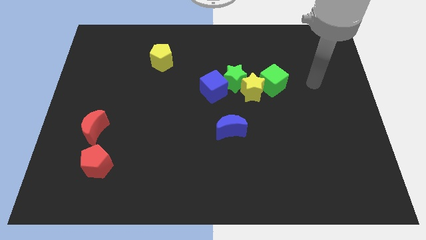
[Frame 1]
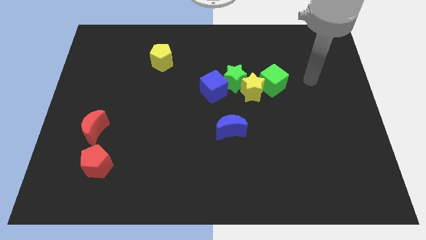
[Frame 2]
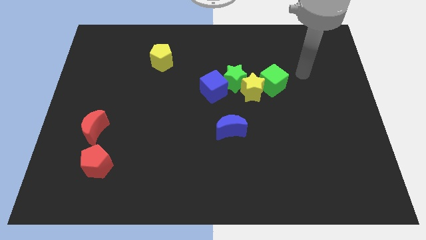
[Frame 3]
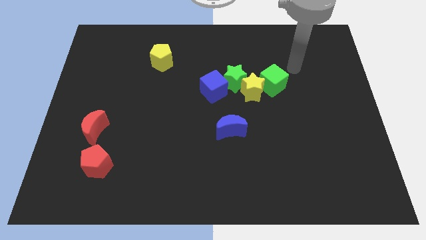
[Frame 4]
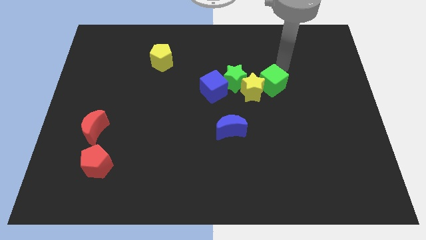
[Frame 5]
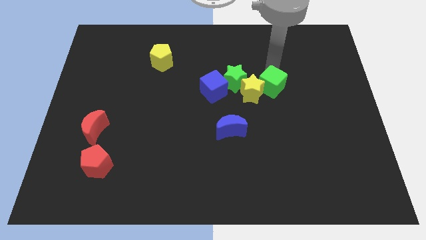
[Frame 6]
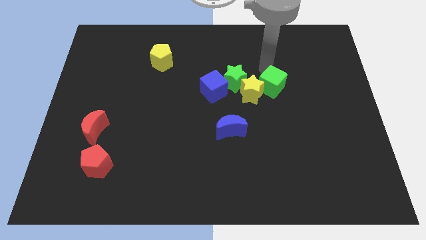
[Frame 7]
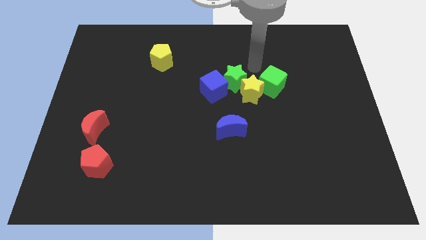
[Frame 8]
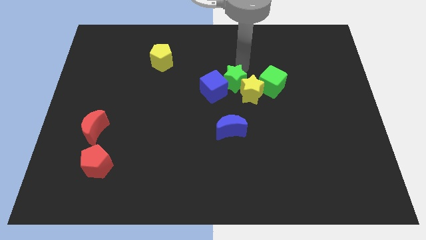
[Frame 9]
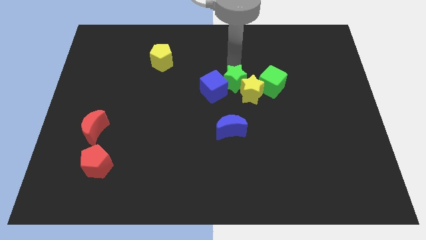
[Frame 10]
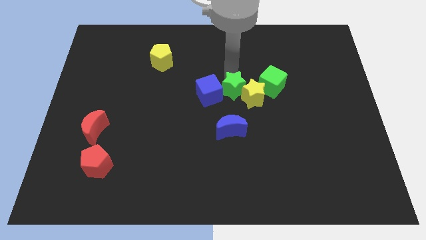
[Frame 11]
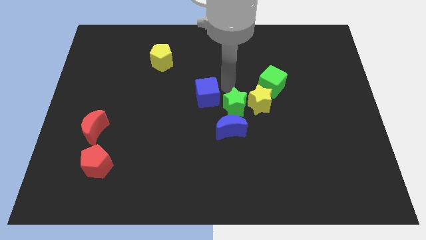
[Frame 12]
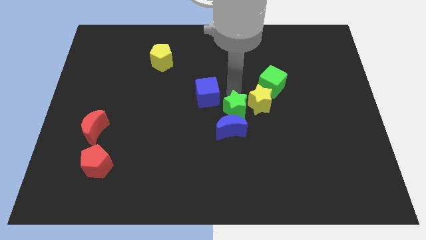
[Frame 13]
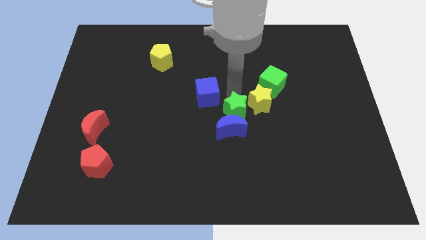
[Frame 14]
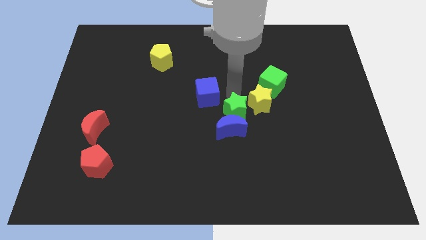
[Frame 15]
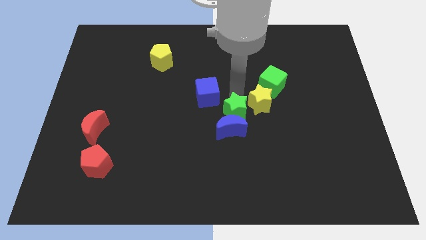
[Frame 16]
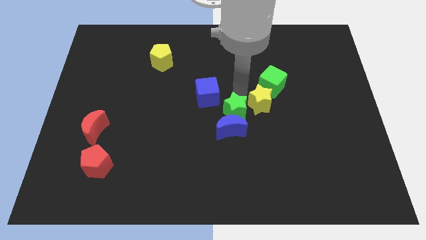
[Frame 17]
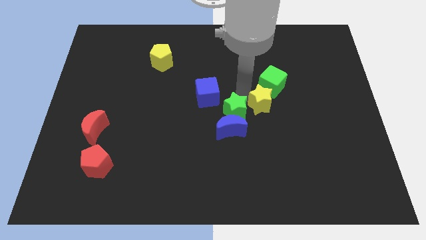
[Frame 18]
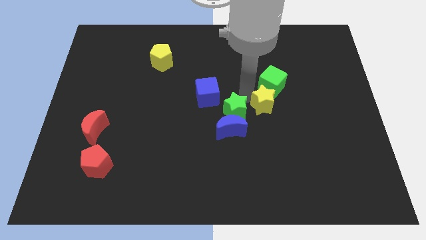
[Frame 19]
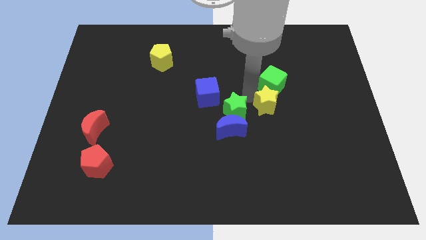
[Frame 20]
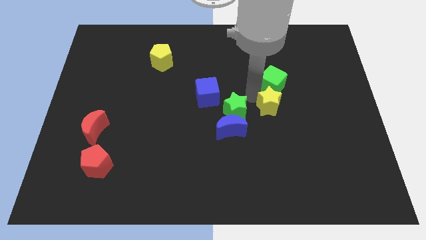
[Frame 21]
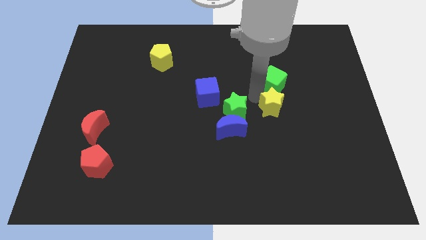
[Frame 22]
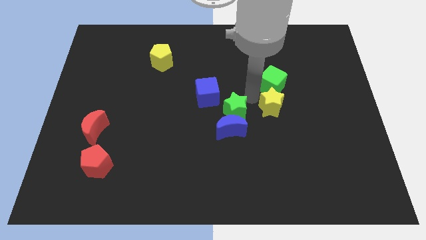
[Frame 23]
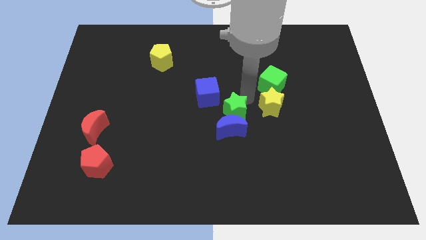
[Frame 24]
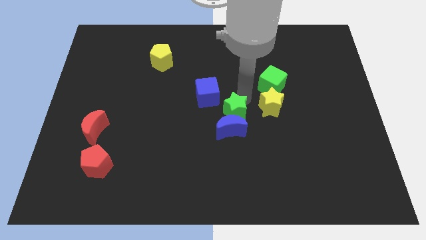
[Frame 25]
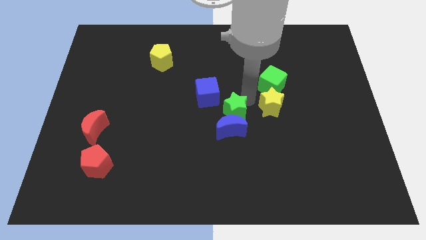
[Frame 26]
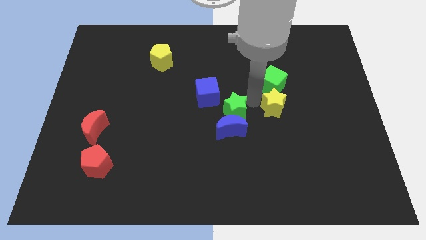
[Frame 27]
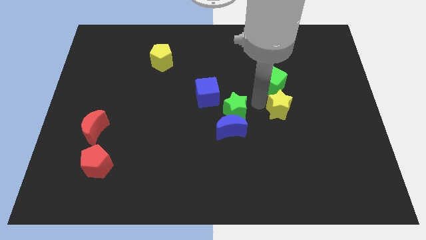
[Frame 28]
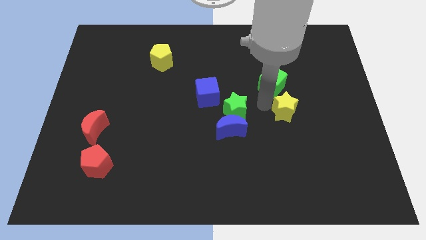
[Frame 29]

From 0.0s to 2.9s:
move the yellow star away from the clump

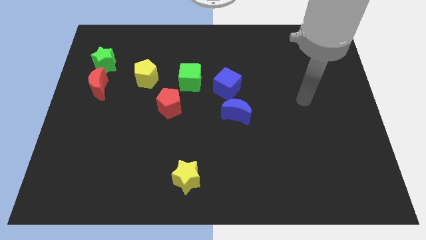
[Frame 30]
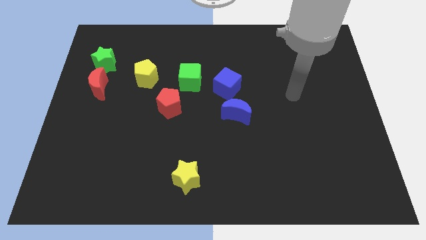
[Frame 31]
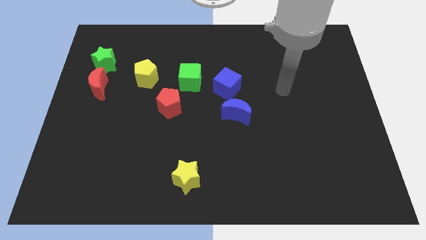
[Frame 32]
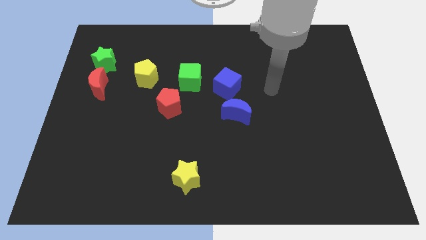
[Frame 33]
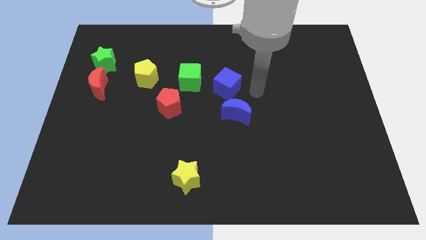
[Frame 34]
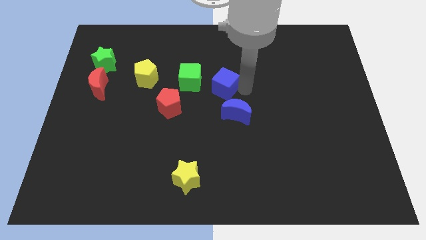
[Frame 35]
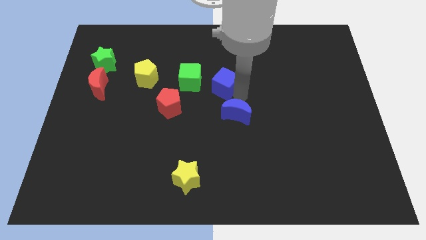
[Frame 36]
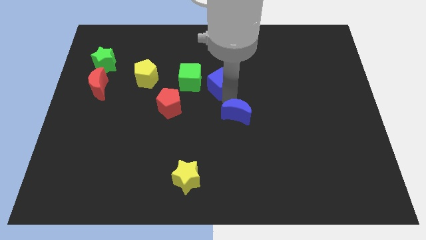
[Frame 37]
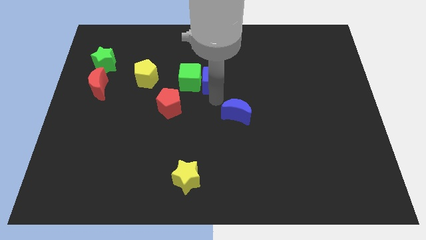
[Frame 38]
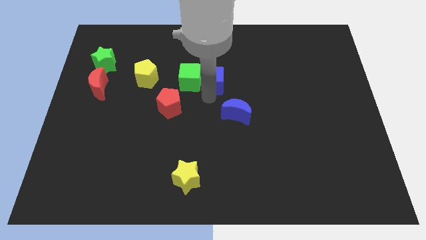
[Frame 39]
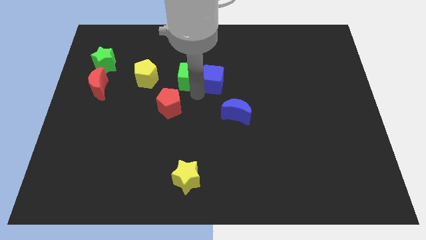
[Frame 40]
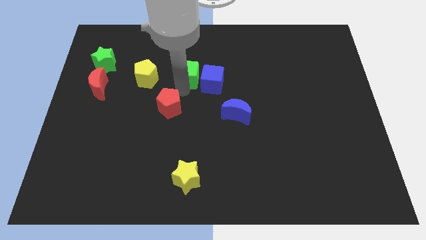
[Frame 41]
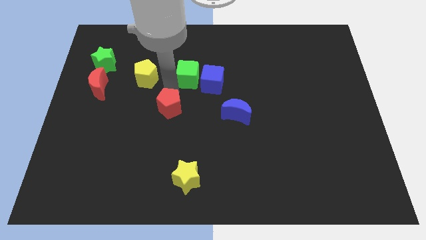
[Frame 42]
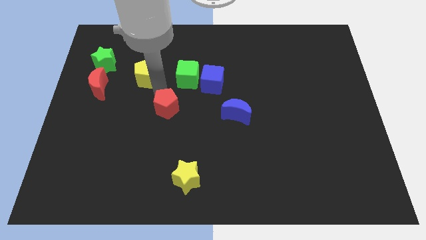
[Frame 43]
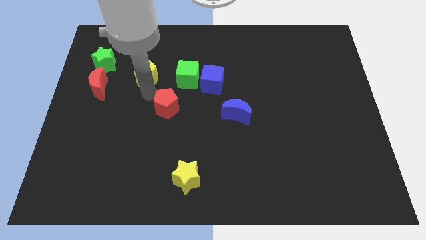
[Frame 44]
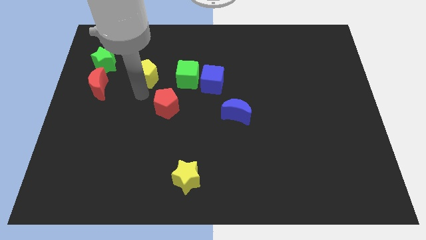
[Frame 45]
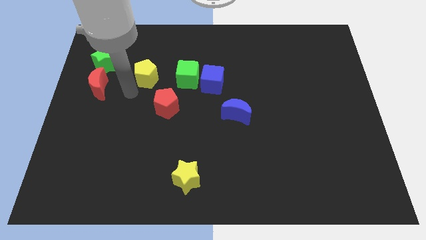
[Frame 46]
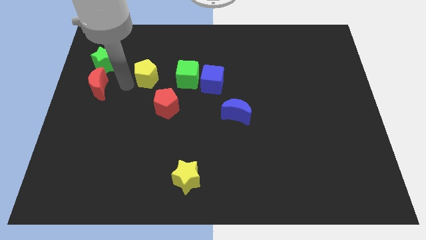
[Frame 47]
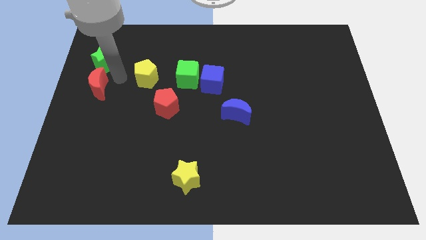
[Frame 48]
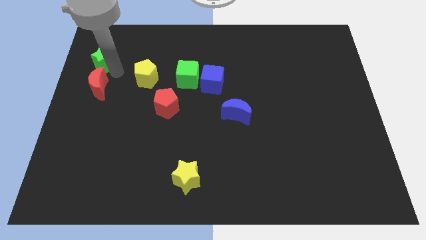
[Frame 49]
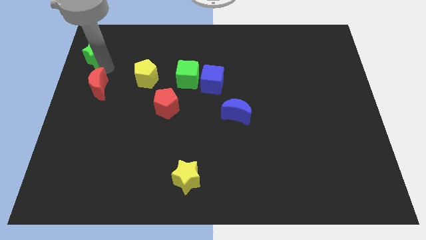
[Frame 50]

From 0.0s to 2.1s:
move the red moon away from the green star

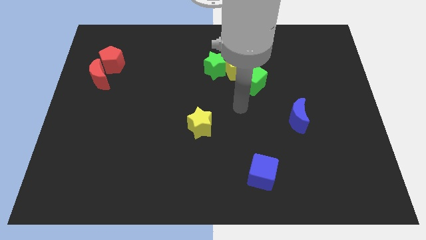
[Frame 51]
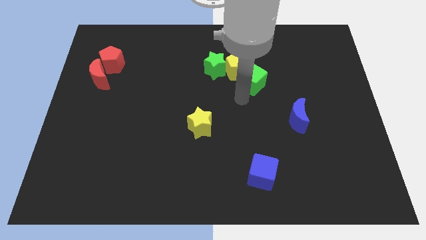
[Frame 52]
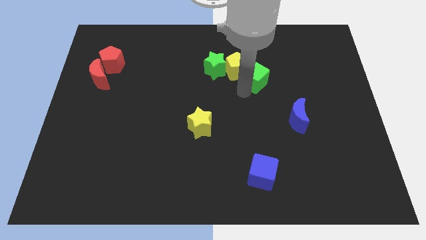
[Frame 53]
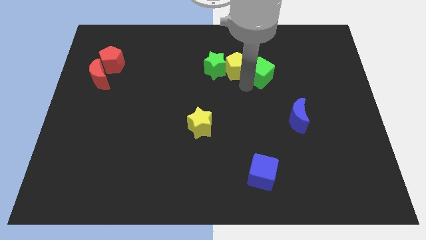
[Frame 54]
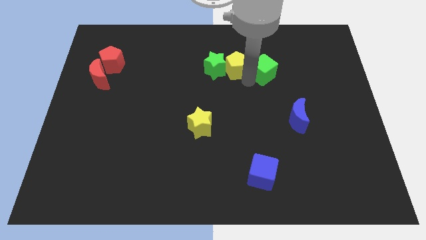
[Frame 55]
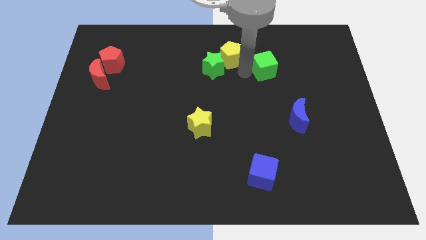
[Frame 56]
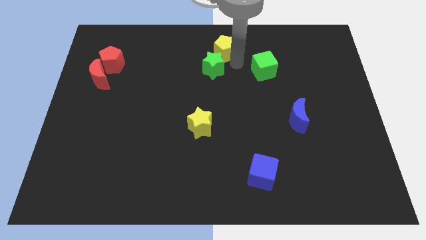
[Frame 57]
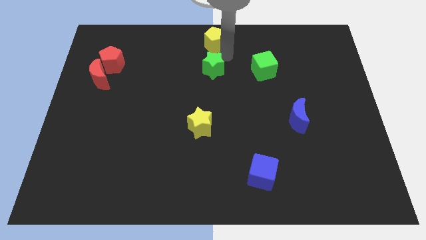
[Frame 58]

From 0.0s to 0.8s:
separate the green star from the yellow pentagon

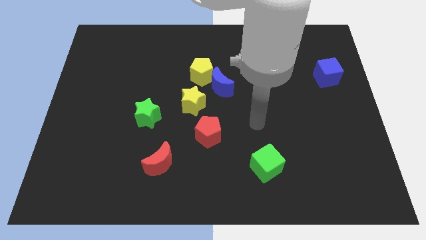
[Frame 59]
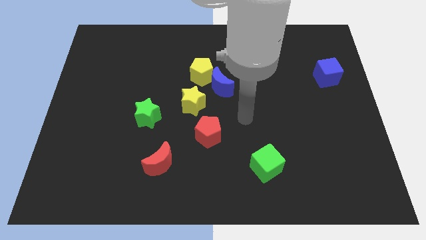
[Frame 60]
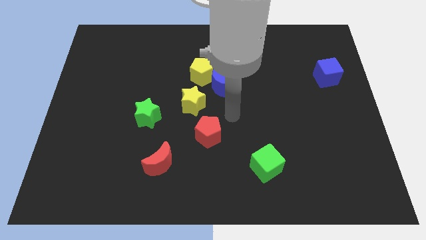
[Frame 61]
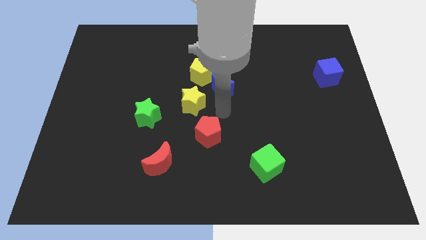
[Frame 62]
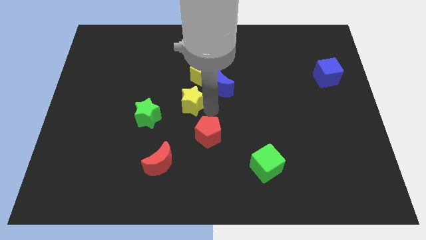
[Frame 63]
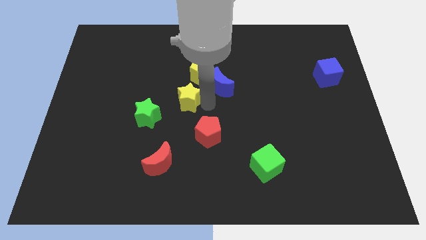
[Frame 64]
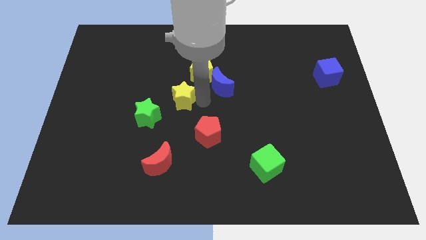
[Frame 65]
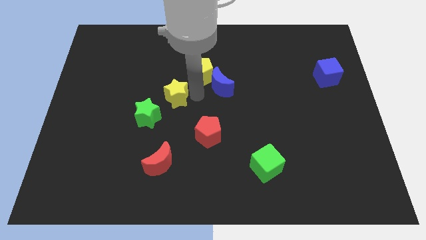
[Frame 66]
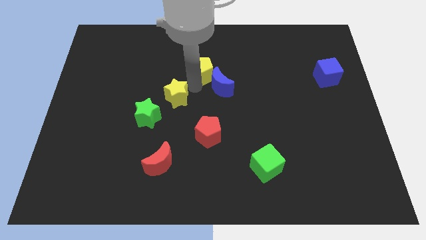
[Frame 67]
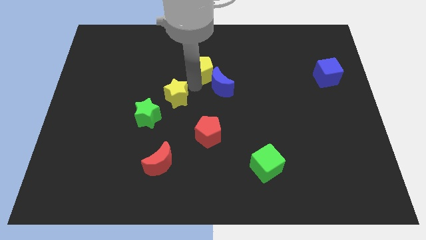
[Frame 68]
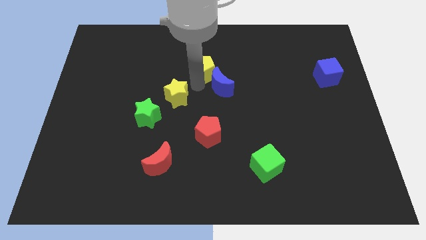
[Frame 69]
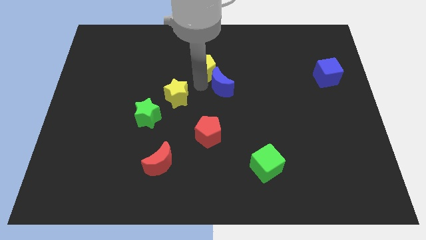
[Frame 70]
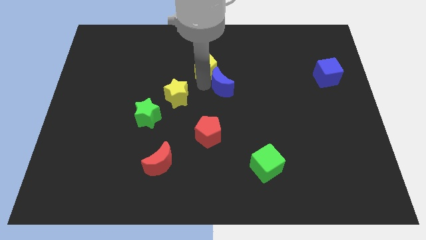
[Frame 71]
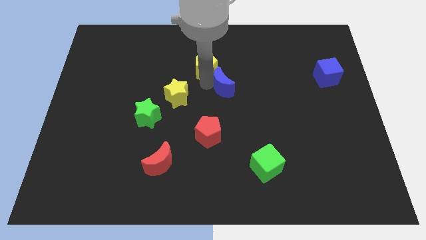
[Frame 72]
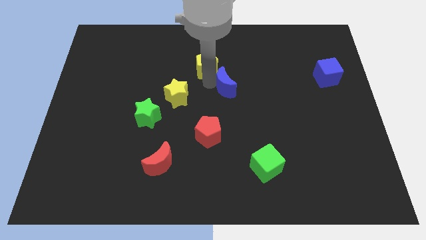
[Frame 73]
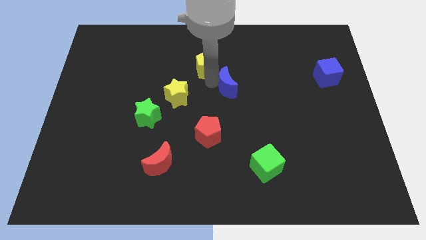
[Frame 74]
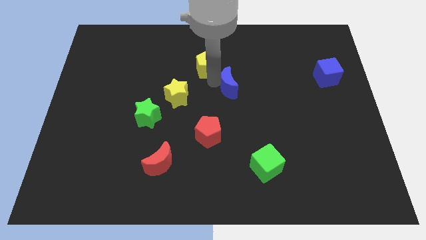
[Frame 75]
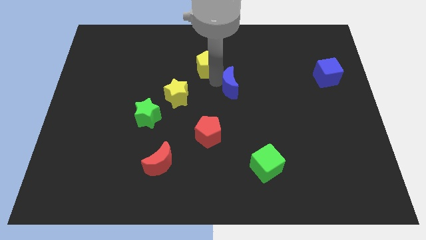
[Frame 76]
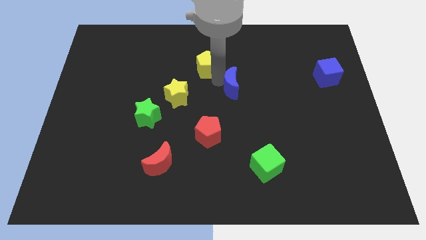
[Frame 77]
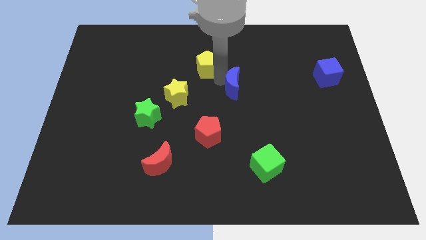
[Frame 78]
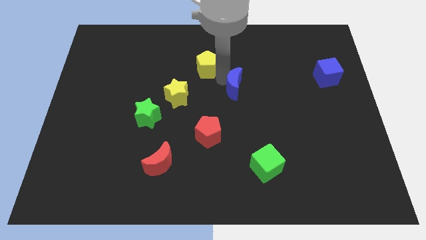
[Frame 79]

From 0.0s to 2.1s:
separate the blue moon from the yellow pentagon and yellow star

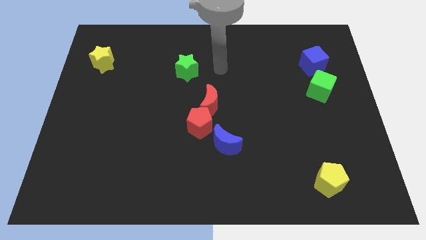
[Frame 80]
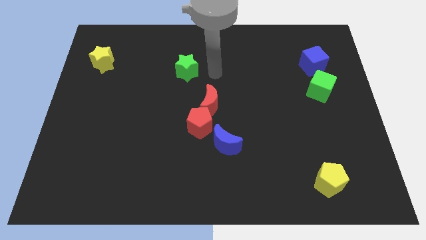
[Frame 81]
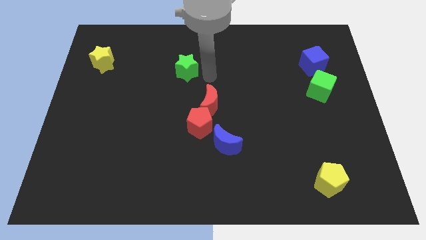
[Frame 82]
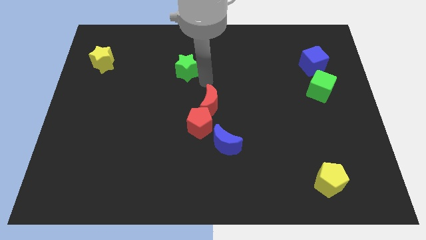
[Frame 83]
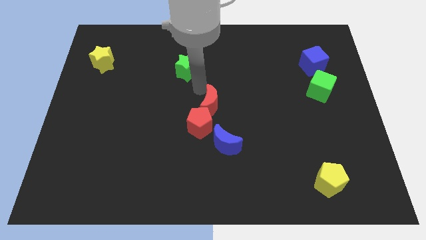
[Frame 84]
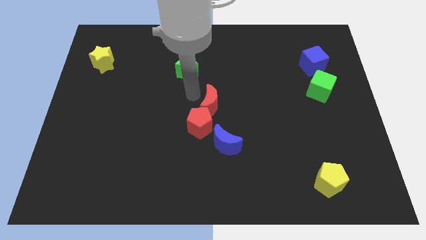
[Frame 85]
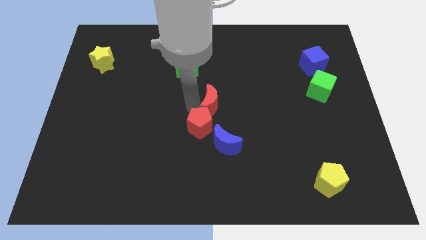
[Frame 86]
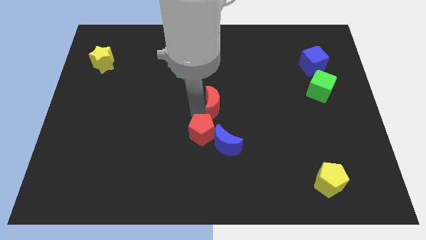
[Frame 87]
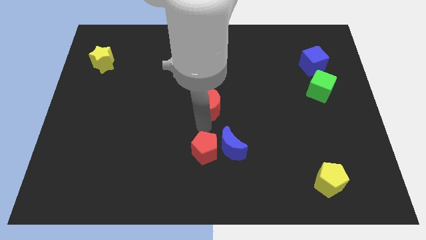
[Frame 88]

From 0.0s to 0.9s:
pull the red moon apart from the red pentagon

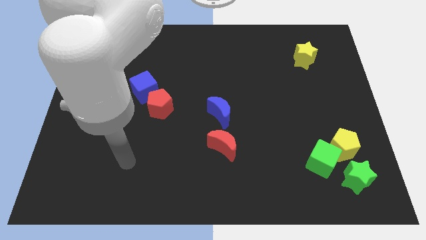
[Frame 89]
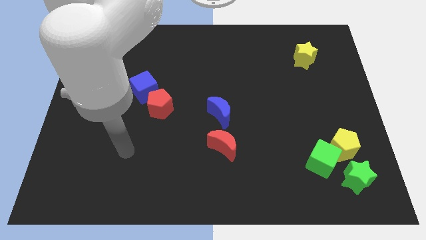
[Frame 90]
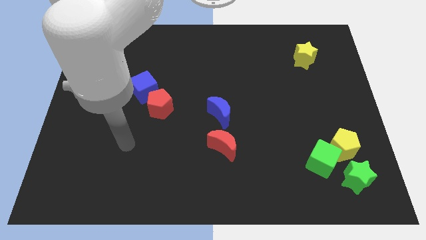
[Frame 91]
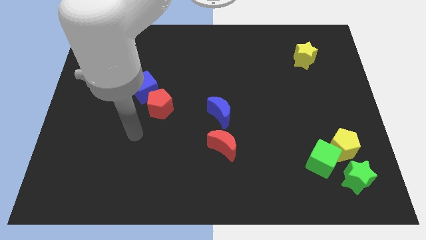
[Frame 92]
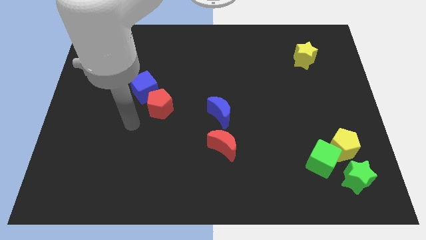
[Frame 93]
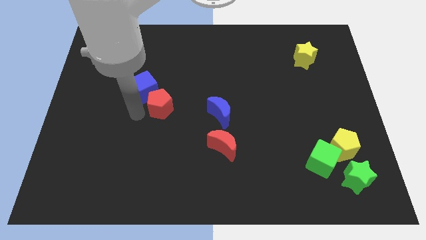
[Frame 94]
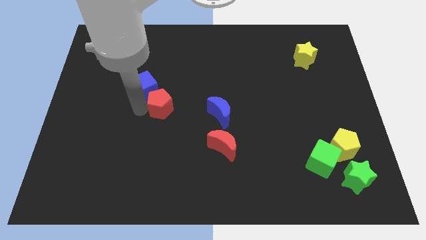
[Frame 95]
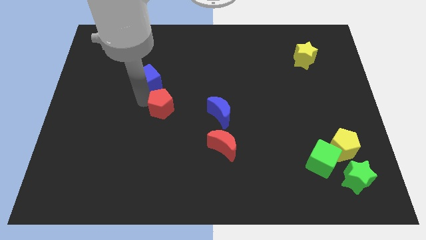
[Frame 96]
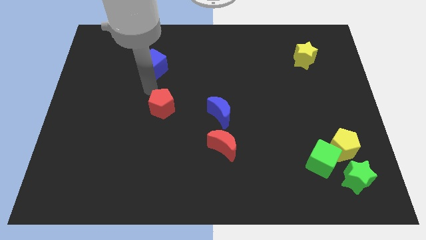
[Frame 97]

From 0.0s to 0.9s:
move the red pentagon away from the blue cube
